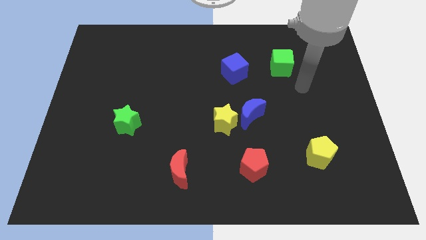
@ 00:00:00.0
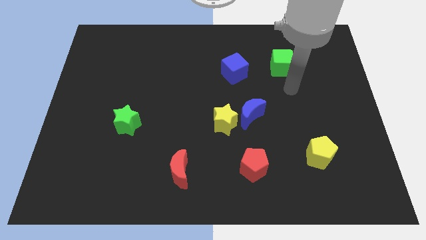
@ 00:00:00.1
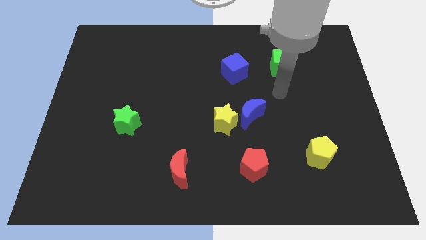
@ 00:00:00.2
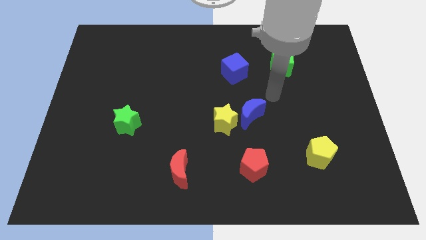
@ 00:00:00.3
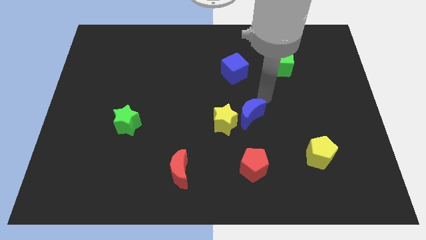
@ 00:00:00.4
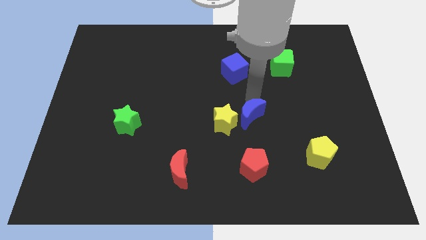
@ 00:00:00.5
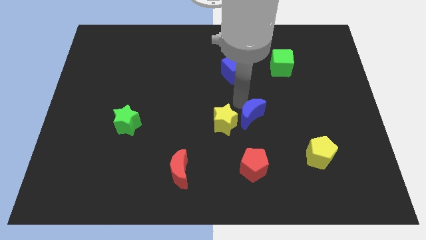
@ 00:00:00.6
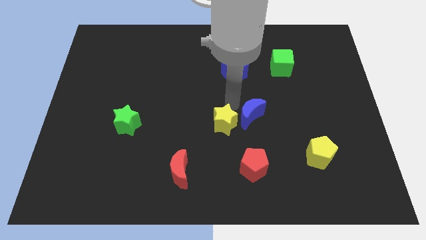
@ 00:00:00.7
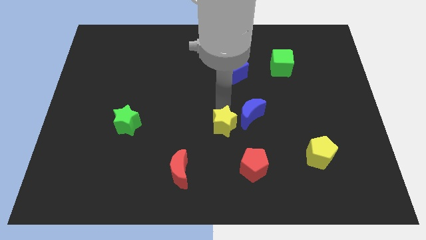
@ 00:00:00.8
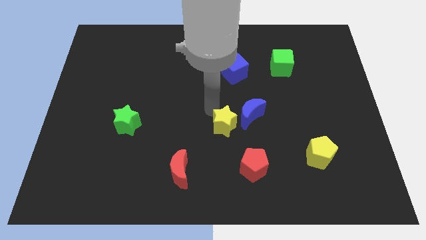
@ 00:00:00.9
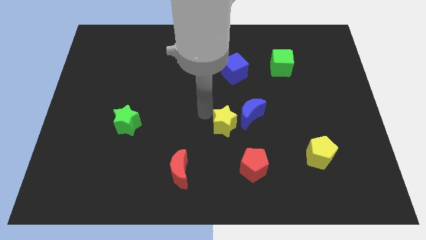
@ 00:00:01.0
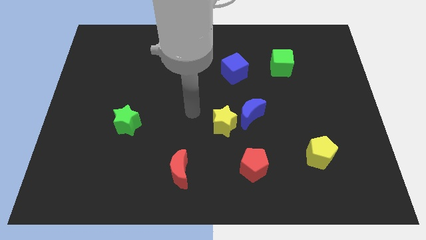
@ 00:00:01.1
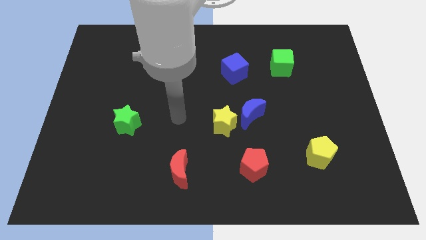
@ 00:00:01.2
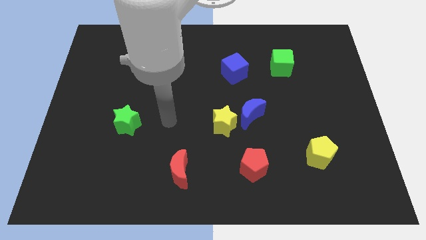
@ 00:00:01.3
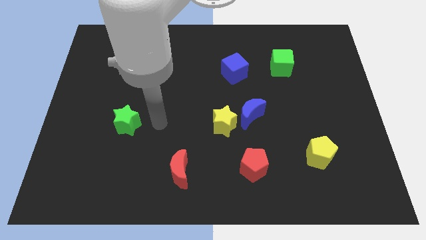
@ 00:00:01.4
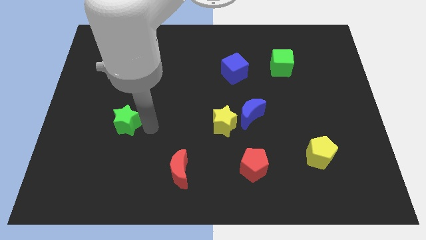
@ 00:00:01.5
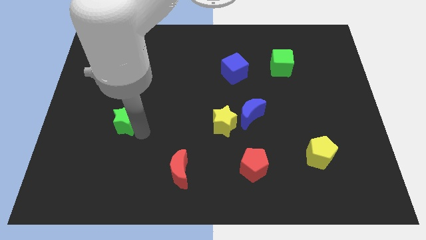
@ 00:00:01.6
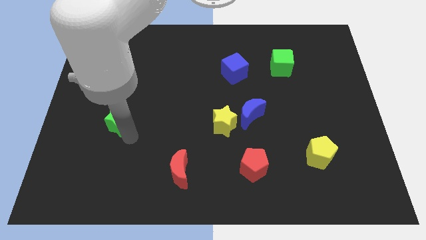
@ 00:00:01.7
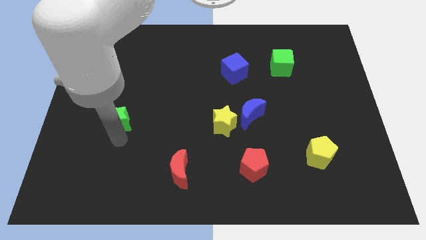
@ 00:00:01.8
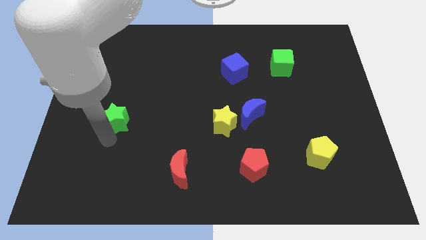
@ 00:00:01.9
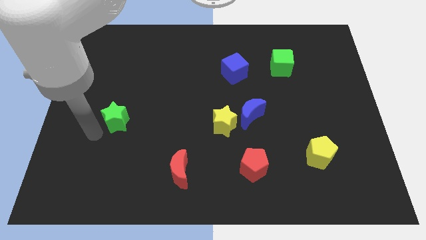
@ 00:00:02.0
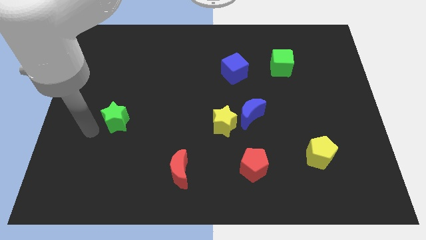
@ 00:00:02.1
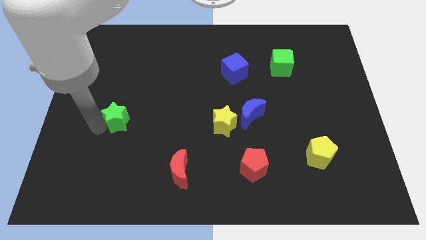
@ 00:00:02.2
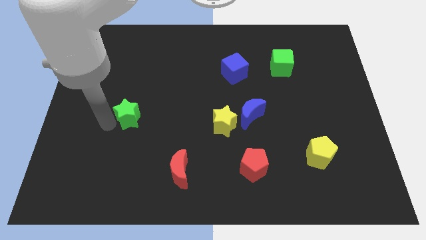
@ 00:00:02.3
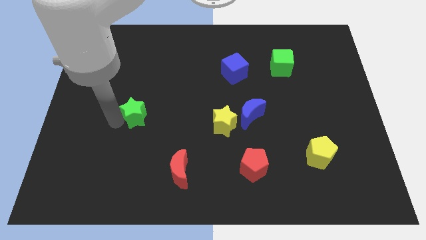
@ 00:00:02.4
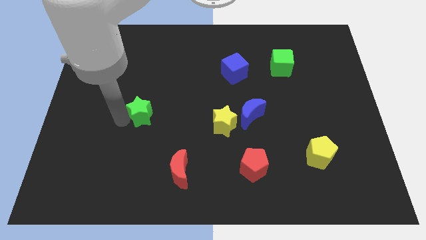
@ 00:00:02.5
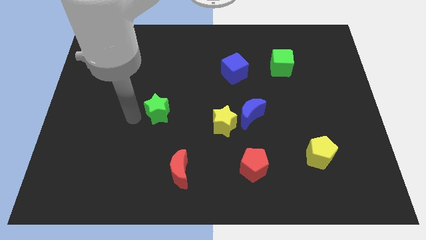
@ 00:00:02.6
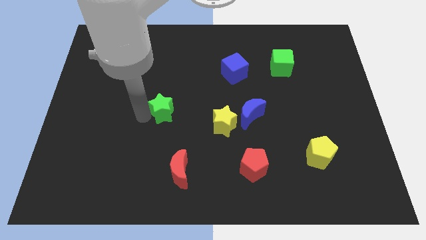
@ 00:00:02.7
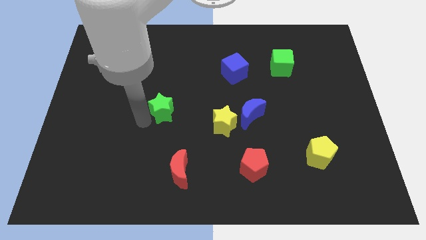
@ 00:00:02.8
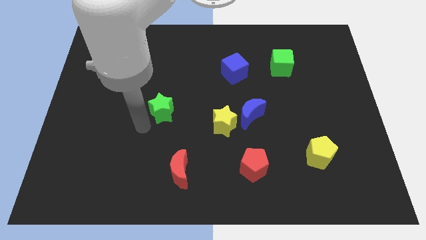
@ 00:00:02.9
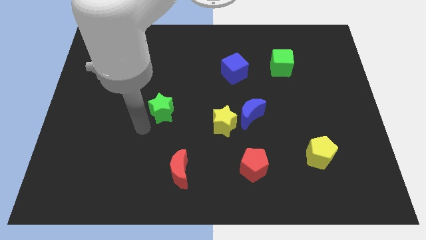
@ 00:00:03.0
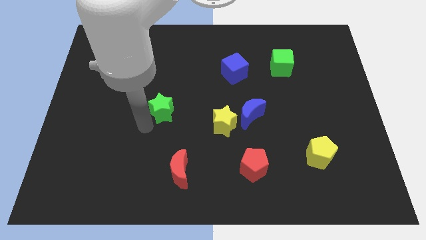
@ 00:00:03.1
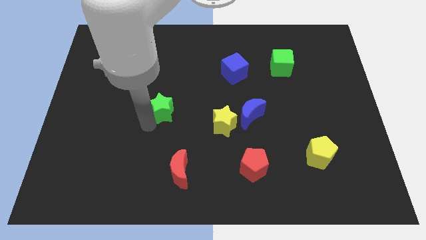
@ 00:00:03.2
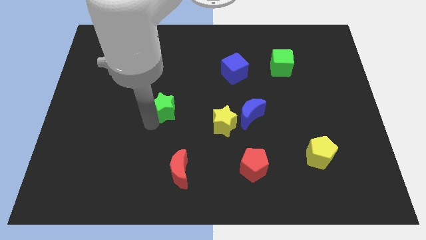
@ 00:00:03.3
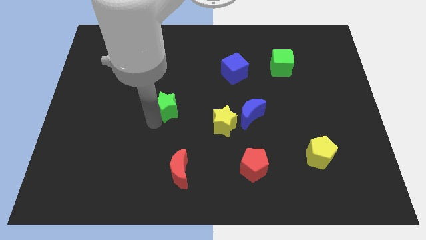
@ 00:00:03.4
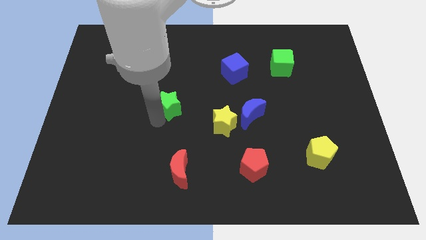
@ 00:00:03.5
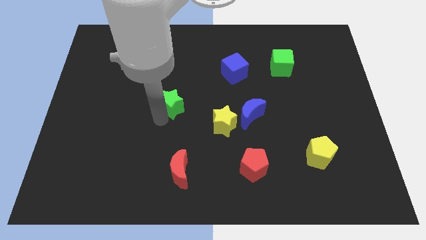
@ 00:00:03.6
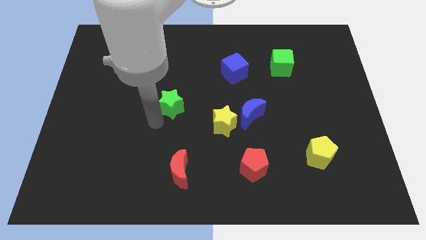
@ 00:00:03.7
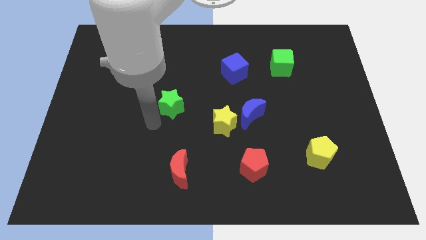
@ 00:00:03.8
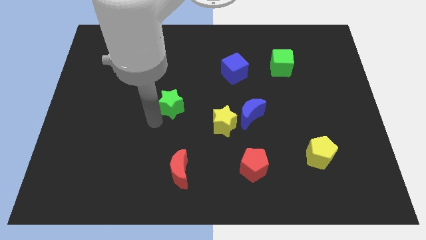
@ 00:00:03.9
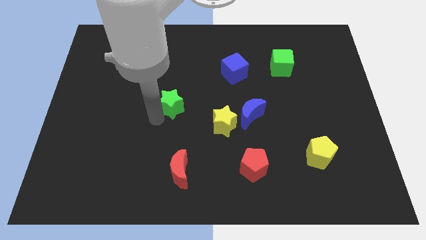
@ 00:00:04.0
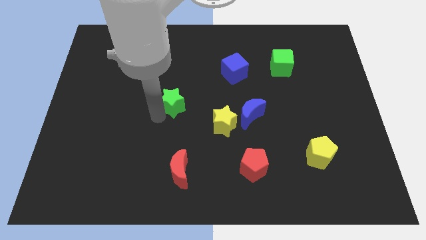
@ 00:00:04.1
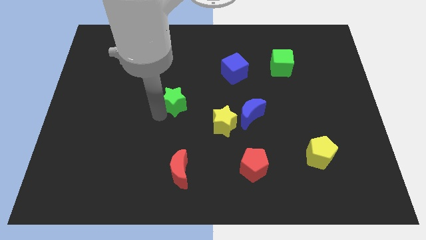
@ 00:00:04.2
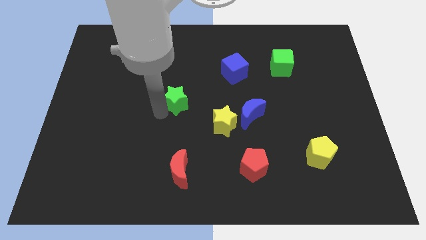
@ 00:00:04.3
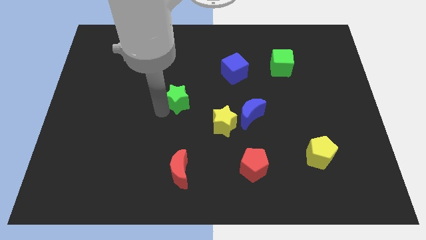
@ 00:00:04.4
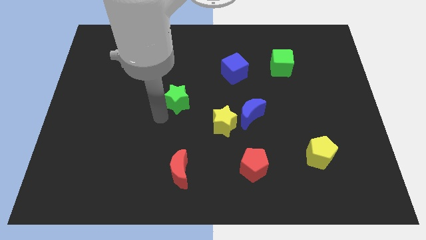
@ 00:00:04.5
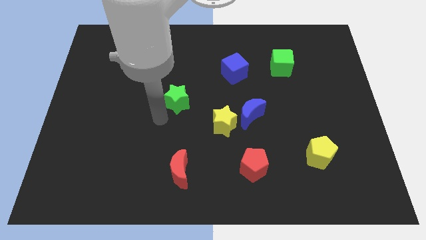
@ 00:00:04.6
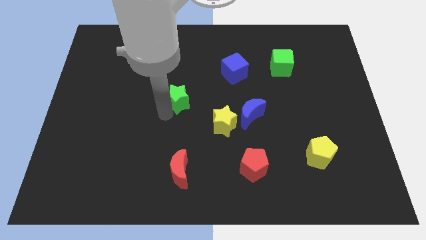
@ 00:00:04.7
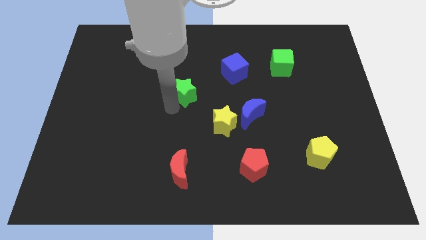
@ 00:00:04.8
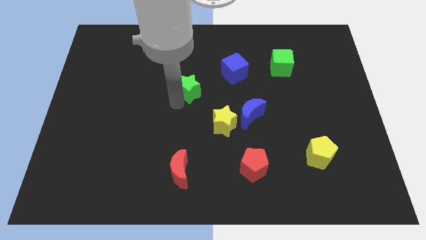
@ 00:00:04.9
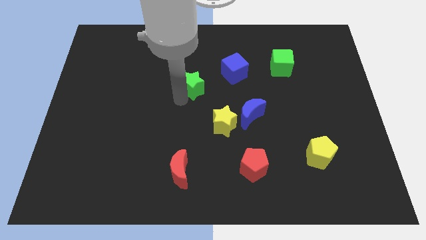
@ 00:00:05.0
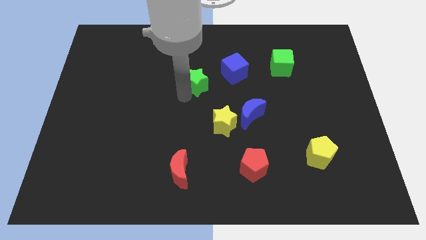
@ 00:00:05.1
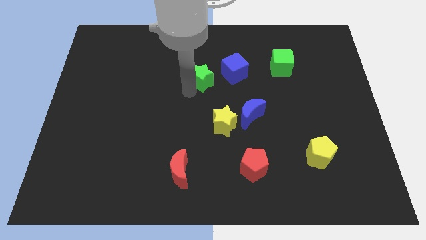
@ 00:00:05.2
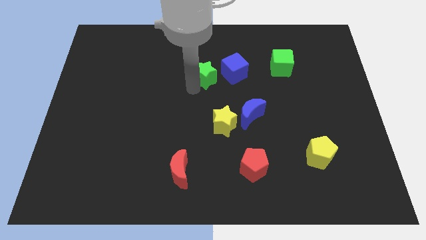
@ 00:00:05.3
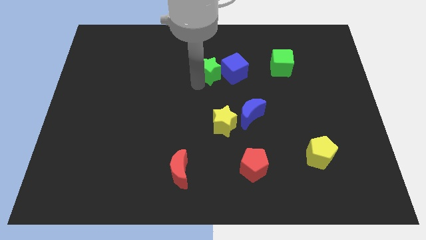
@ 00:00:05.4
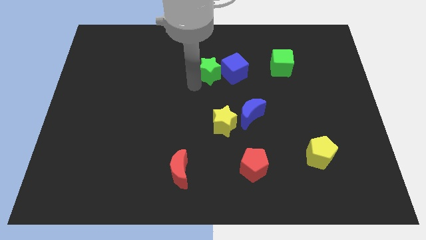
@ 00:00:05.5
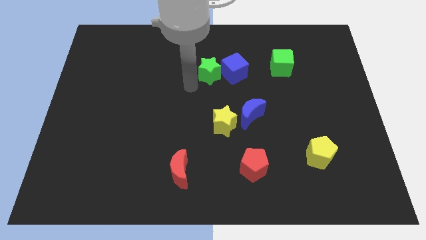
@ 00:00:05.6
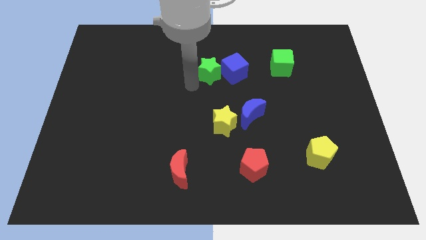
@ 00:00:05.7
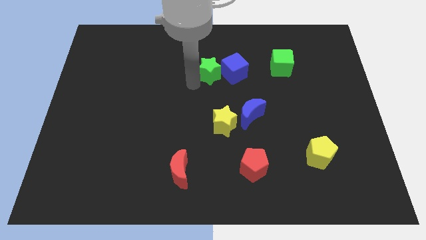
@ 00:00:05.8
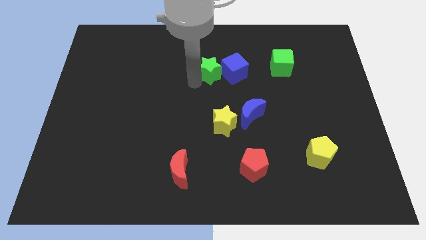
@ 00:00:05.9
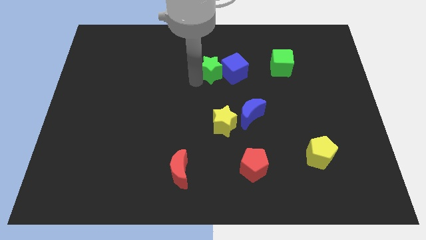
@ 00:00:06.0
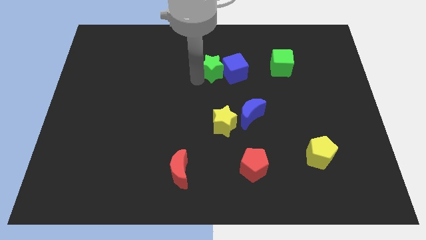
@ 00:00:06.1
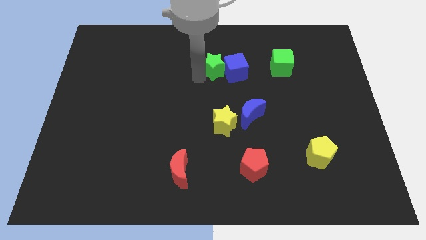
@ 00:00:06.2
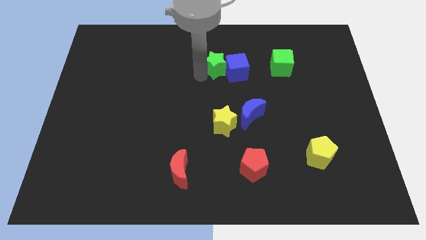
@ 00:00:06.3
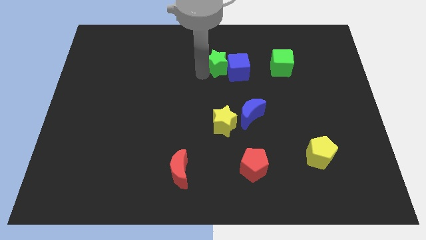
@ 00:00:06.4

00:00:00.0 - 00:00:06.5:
push the green star left of the green cube

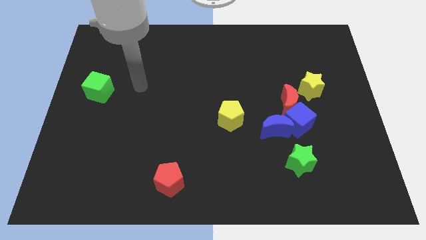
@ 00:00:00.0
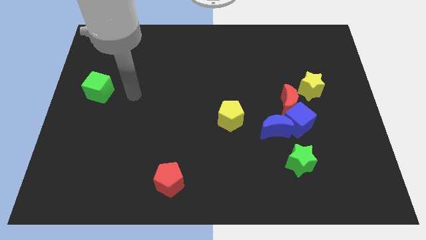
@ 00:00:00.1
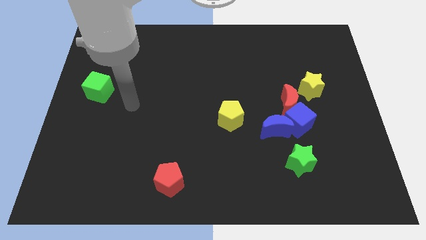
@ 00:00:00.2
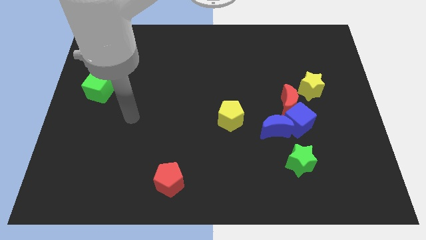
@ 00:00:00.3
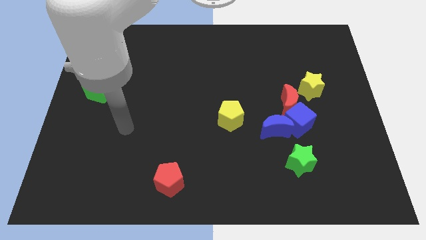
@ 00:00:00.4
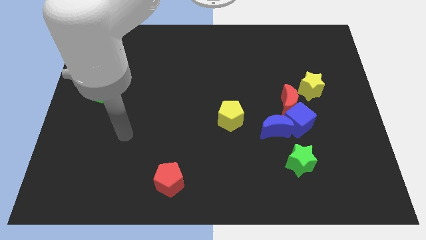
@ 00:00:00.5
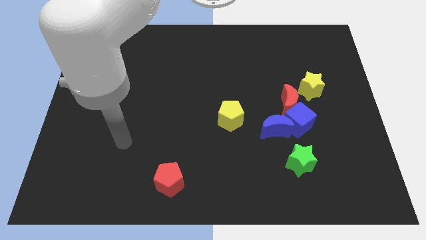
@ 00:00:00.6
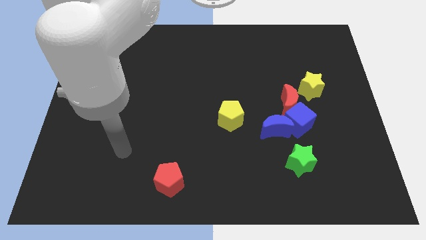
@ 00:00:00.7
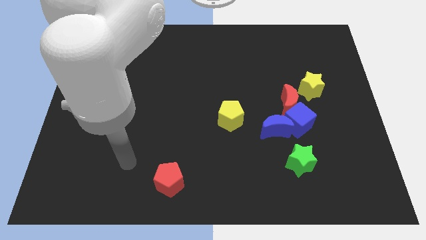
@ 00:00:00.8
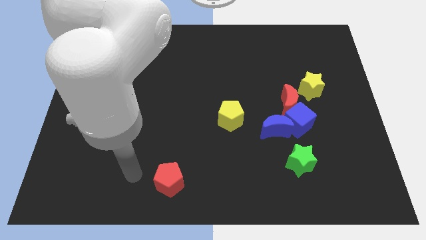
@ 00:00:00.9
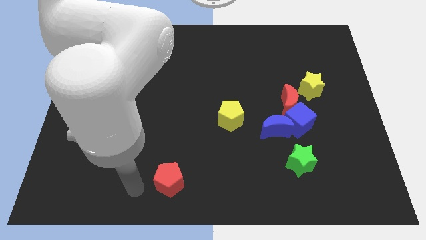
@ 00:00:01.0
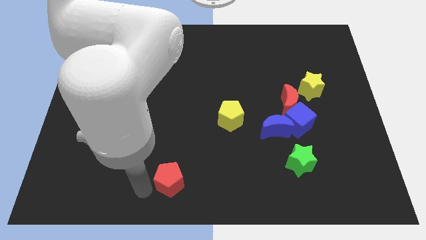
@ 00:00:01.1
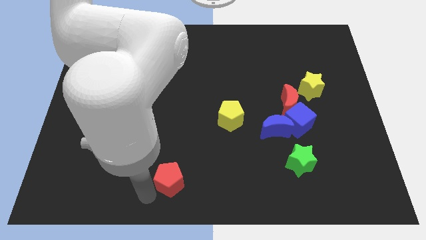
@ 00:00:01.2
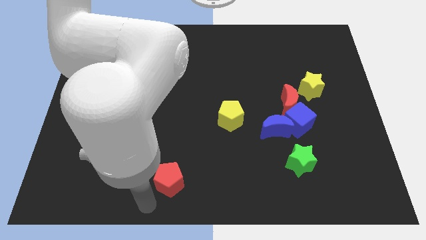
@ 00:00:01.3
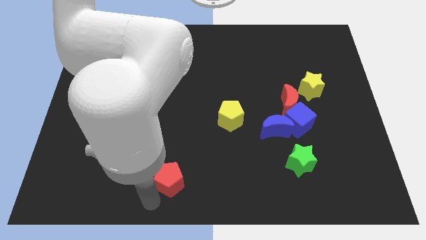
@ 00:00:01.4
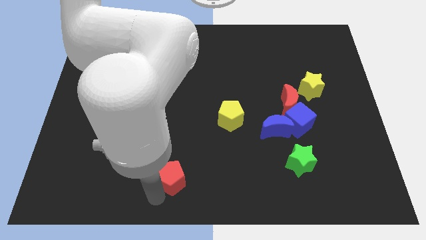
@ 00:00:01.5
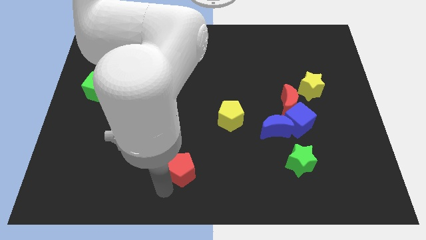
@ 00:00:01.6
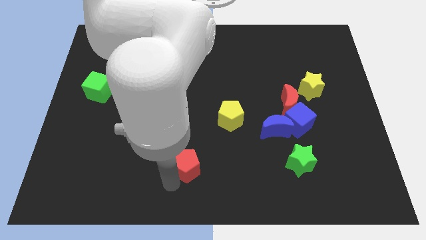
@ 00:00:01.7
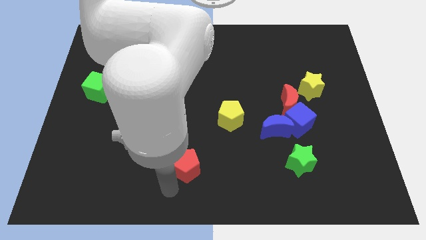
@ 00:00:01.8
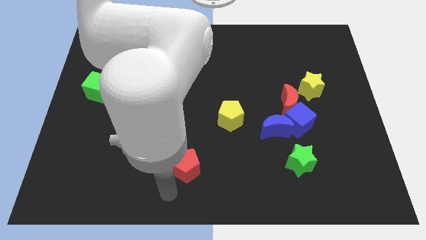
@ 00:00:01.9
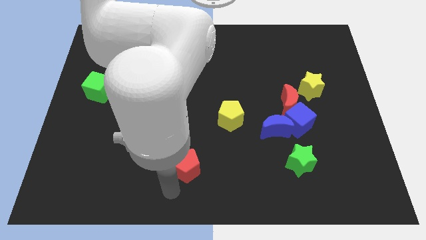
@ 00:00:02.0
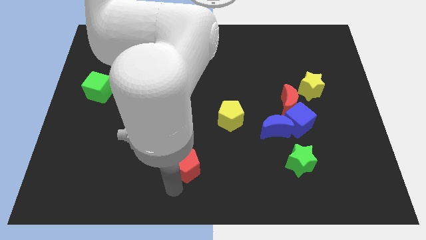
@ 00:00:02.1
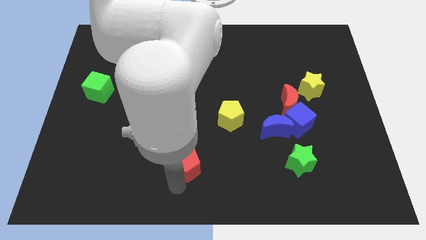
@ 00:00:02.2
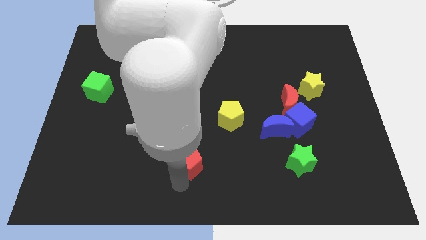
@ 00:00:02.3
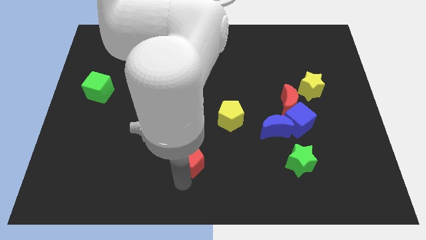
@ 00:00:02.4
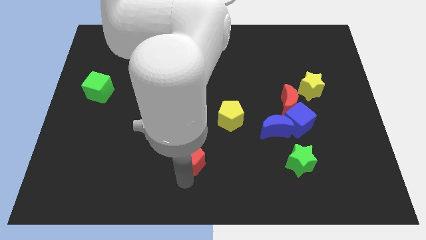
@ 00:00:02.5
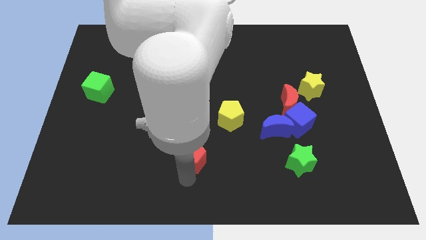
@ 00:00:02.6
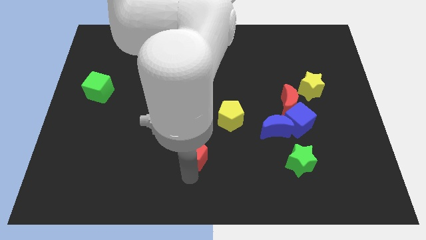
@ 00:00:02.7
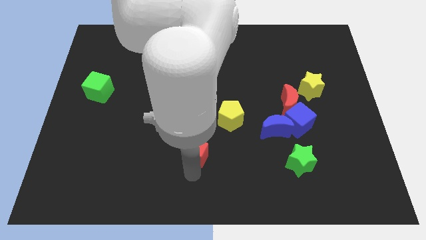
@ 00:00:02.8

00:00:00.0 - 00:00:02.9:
push the red pentagon to the bottom left side of the yellow pentagon
